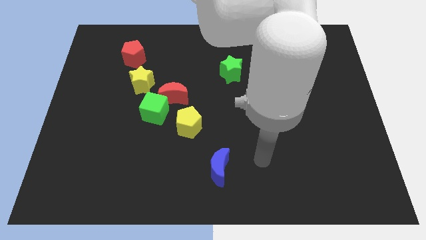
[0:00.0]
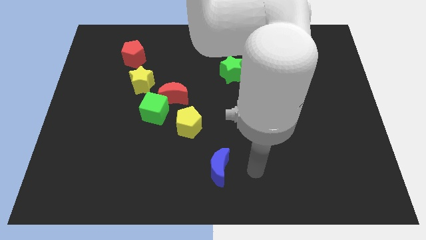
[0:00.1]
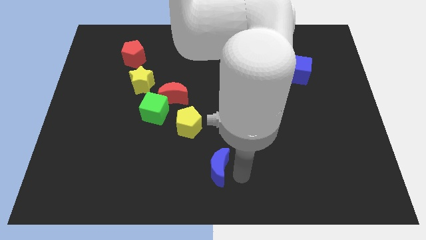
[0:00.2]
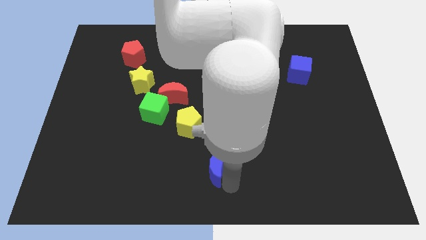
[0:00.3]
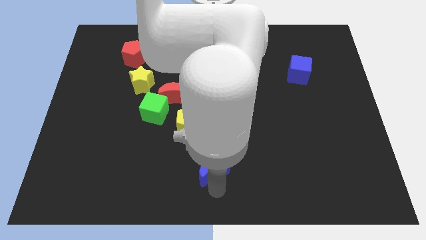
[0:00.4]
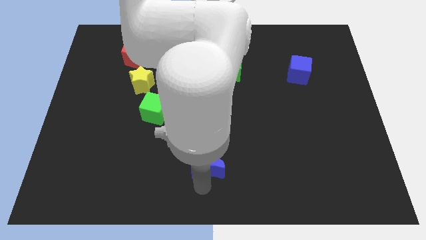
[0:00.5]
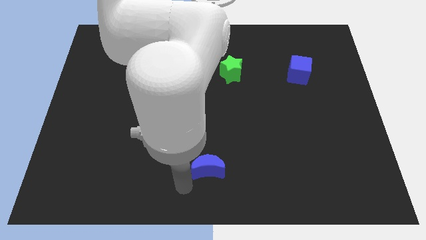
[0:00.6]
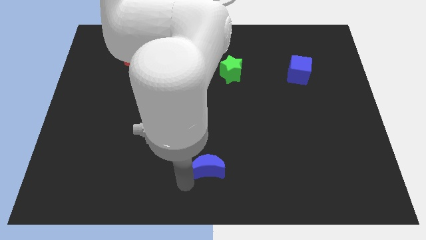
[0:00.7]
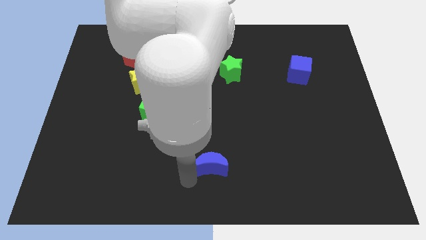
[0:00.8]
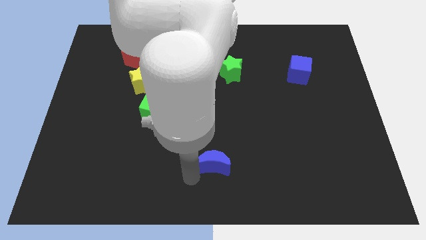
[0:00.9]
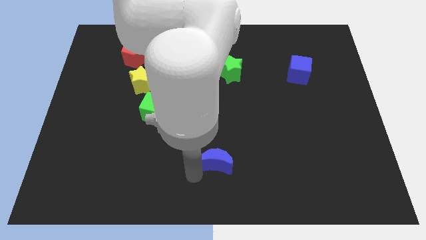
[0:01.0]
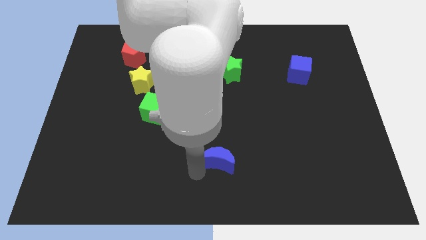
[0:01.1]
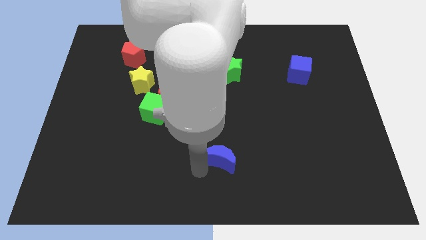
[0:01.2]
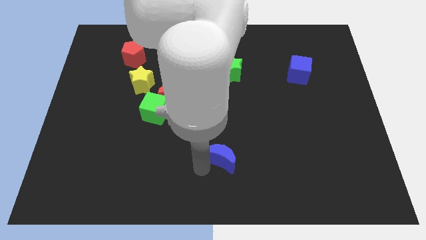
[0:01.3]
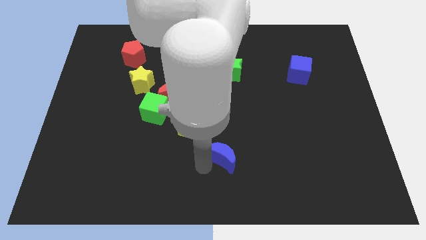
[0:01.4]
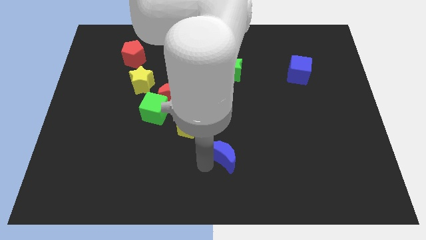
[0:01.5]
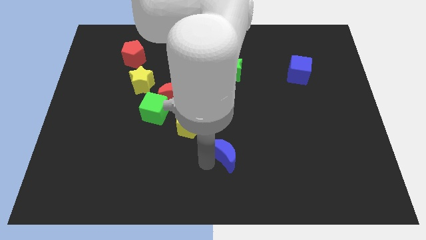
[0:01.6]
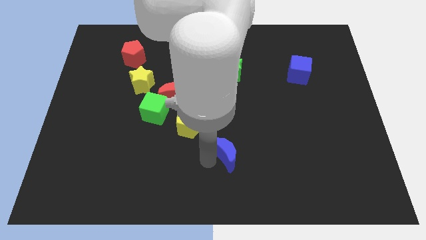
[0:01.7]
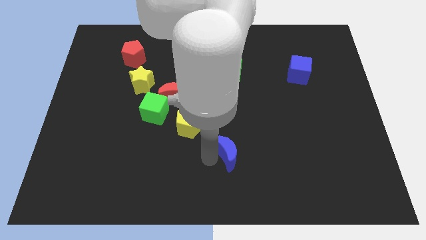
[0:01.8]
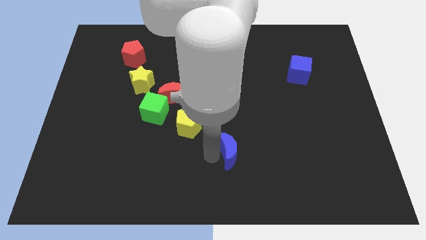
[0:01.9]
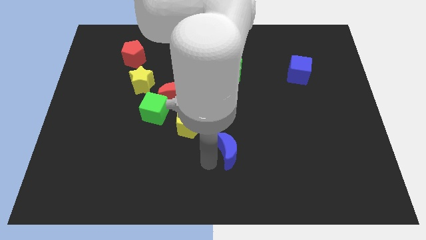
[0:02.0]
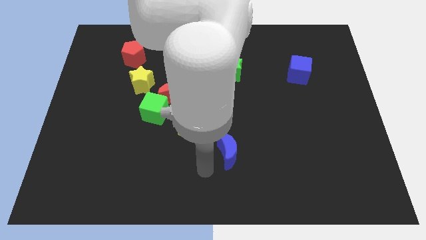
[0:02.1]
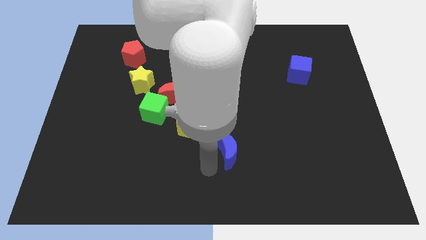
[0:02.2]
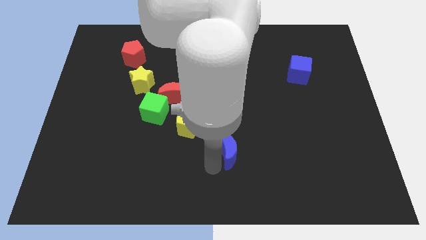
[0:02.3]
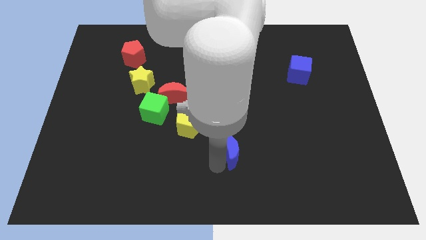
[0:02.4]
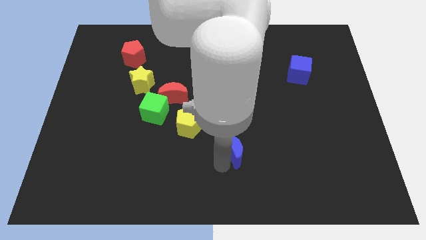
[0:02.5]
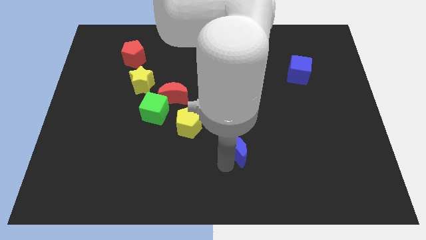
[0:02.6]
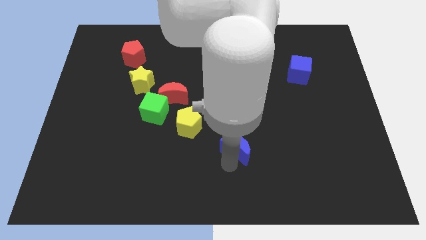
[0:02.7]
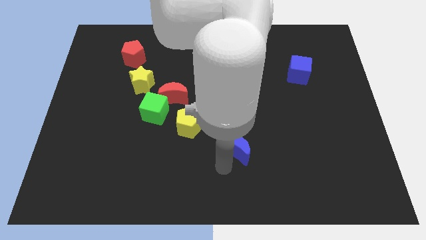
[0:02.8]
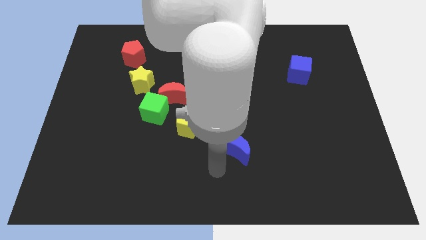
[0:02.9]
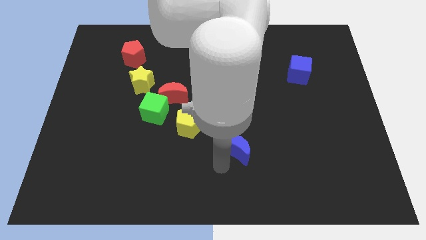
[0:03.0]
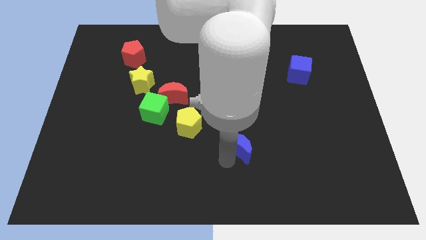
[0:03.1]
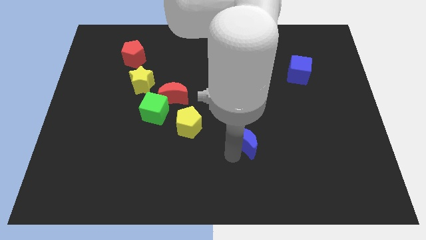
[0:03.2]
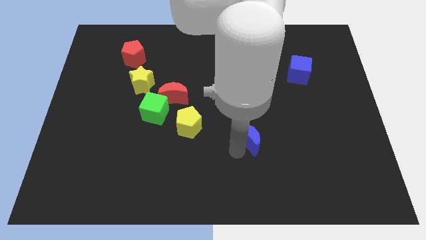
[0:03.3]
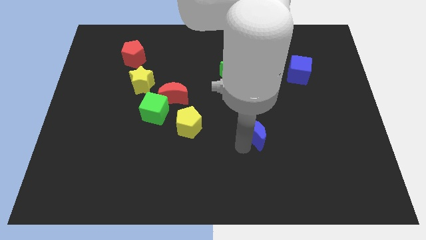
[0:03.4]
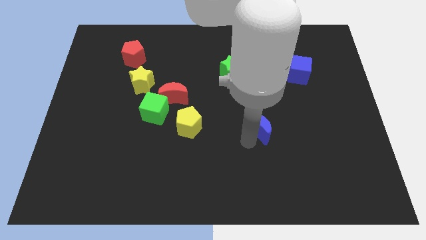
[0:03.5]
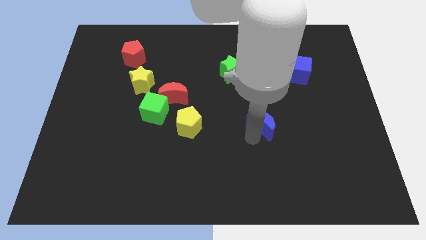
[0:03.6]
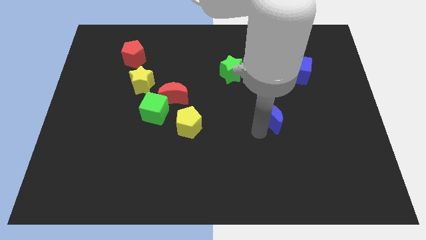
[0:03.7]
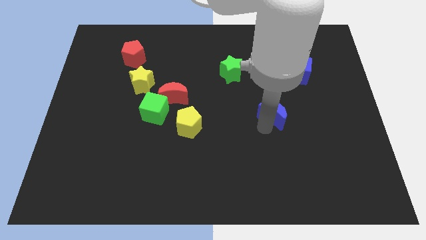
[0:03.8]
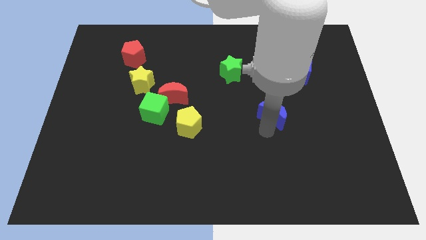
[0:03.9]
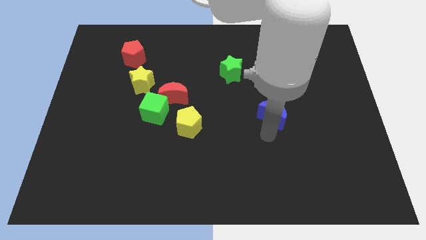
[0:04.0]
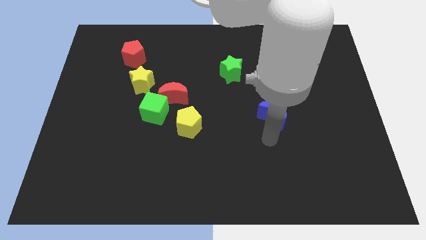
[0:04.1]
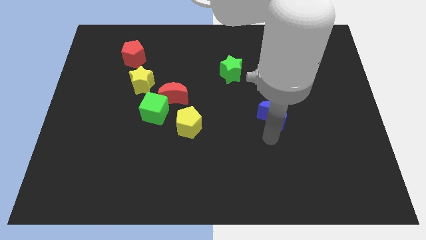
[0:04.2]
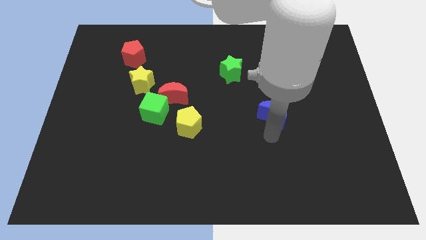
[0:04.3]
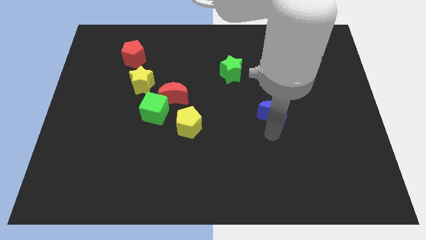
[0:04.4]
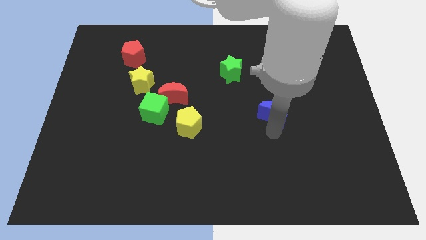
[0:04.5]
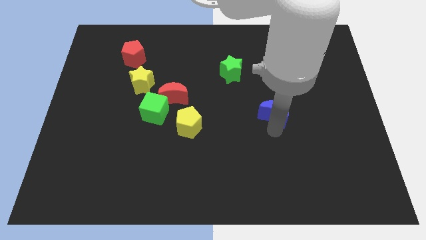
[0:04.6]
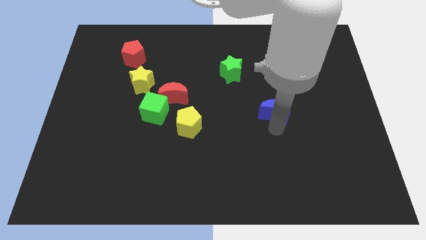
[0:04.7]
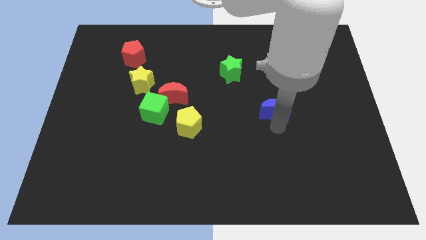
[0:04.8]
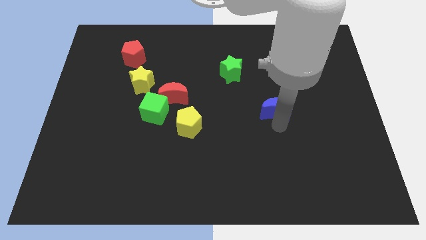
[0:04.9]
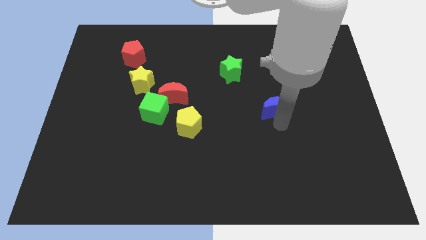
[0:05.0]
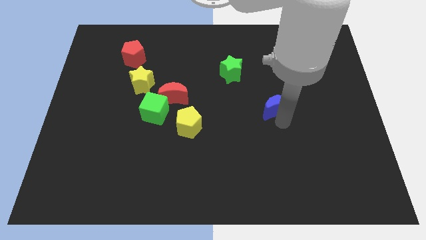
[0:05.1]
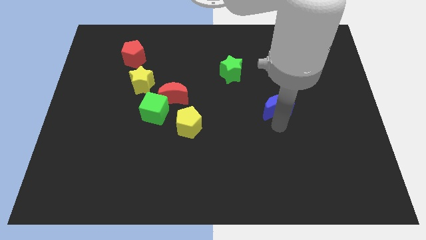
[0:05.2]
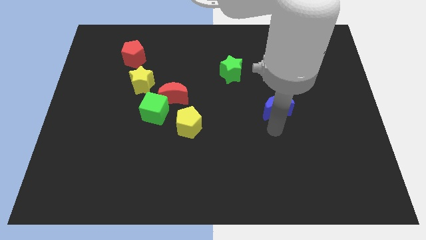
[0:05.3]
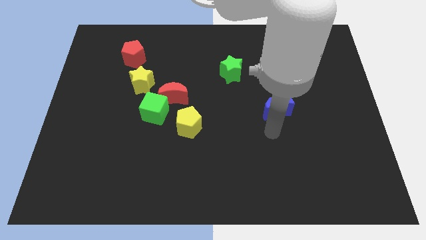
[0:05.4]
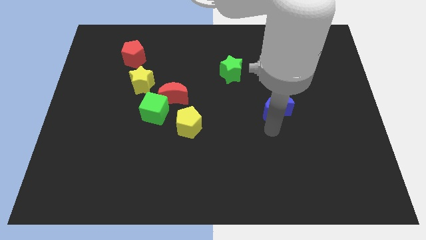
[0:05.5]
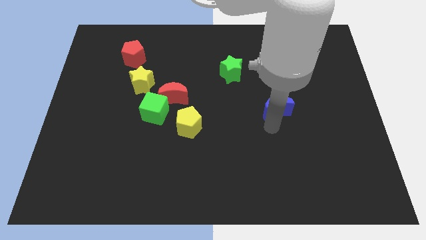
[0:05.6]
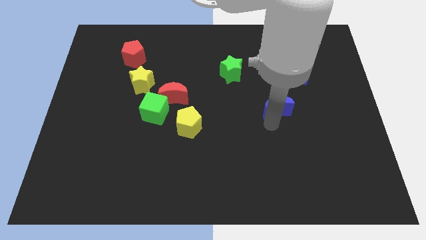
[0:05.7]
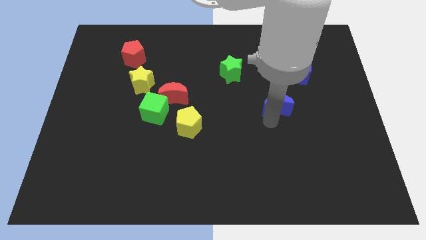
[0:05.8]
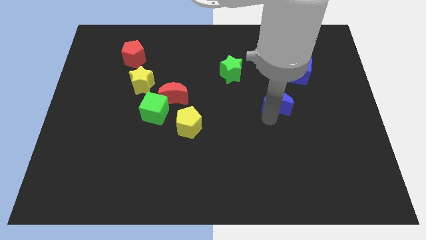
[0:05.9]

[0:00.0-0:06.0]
put the blue moon to the bottom left of the blue cube
